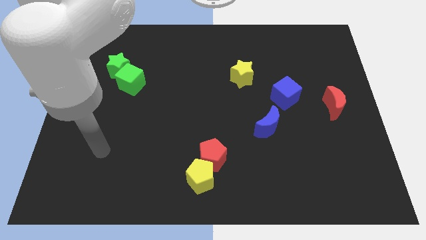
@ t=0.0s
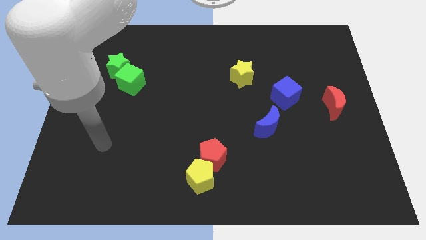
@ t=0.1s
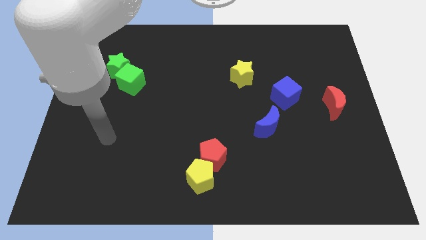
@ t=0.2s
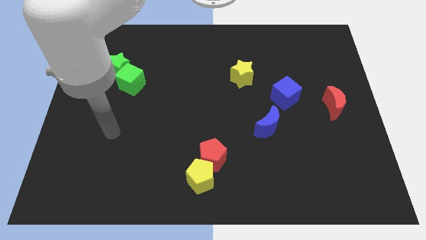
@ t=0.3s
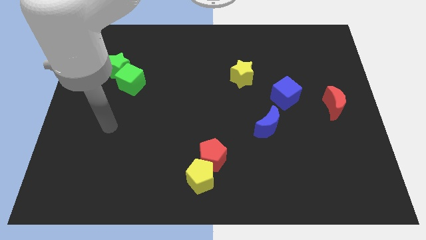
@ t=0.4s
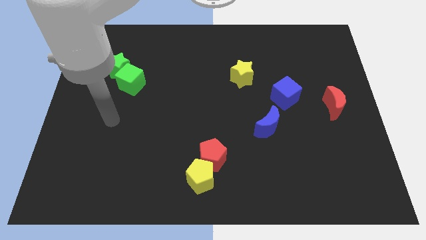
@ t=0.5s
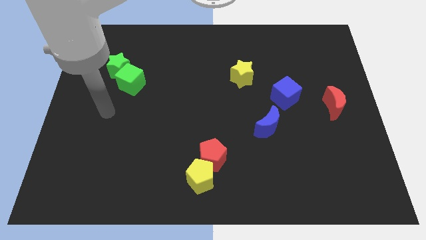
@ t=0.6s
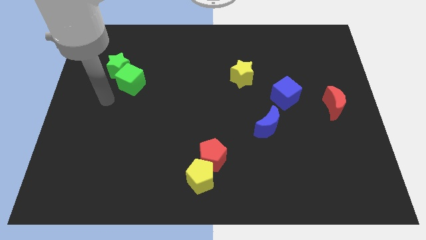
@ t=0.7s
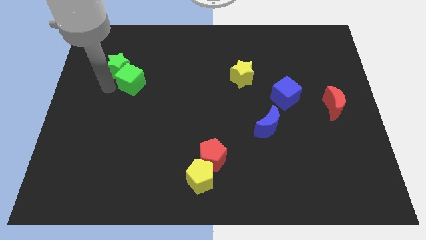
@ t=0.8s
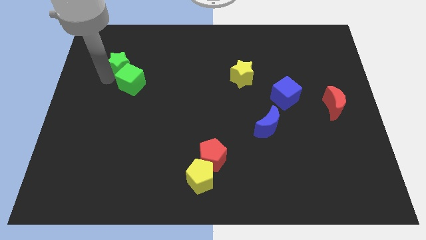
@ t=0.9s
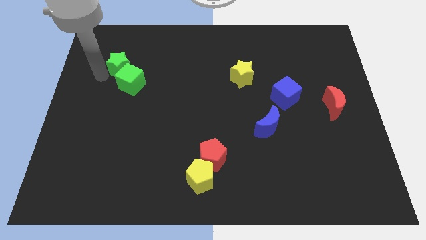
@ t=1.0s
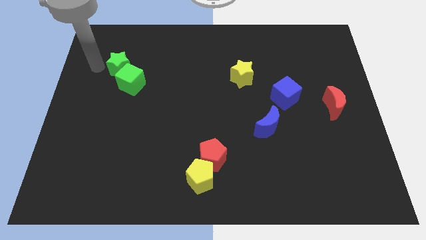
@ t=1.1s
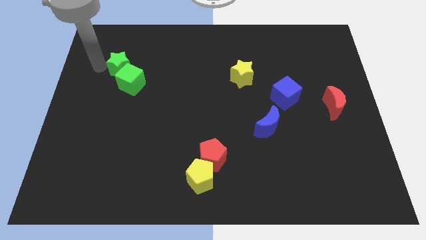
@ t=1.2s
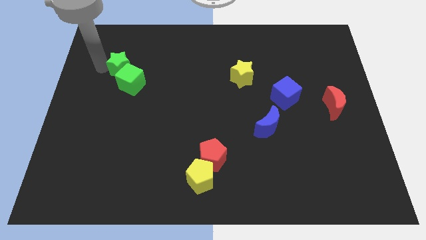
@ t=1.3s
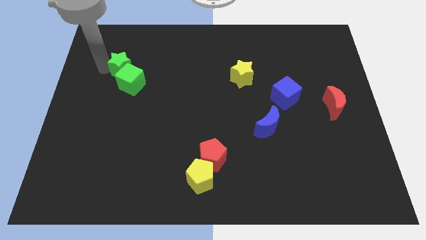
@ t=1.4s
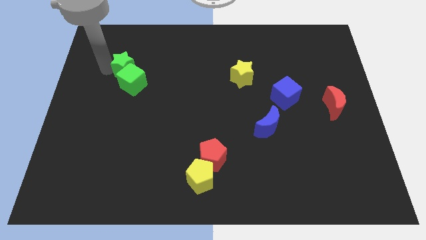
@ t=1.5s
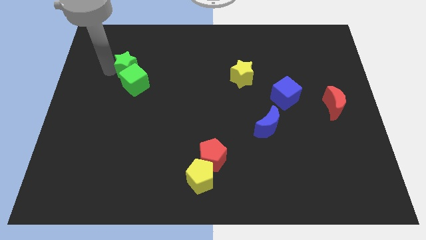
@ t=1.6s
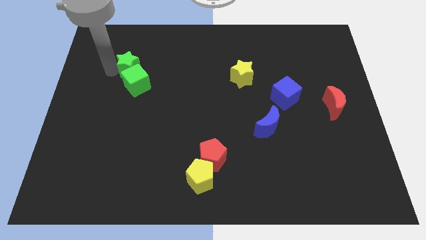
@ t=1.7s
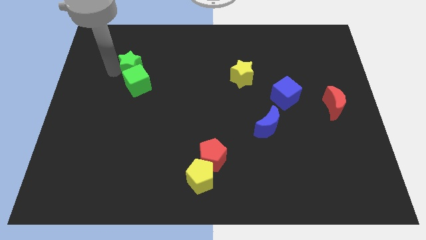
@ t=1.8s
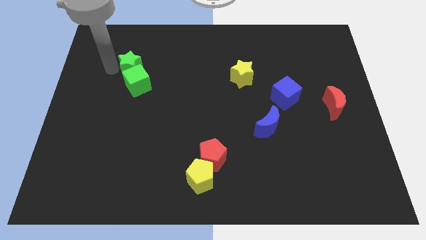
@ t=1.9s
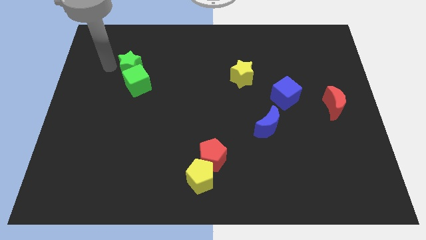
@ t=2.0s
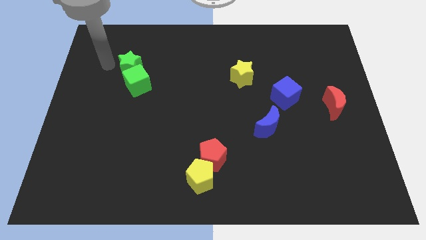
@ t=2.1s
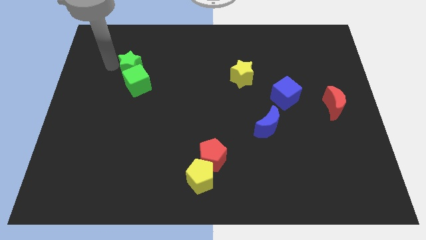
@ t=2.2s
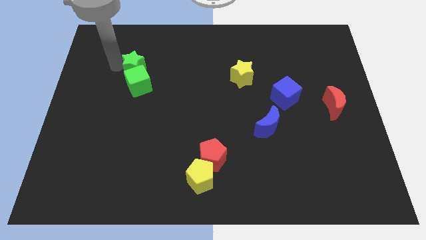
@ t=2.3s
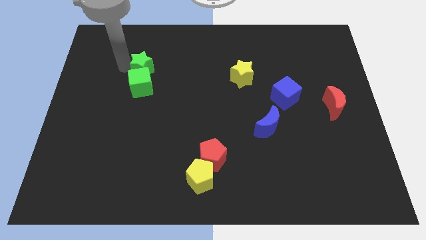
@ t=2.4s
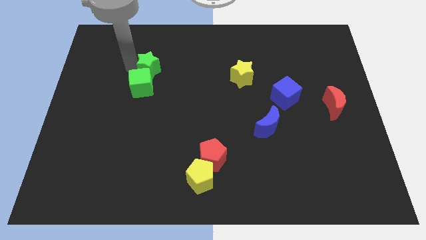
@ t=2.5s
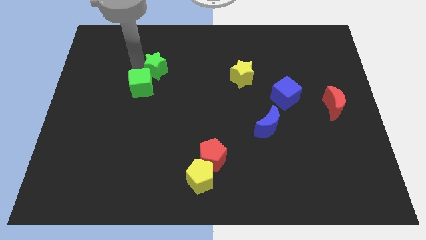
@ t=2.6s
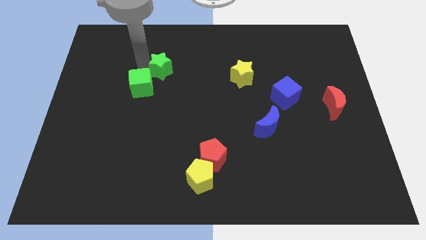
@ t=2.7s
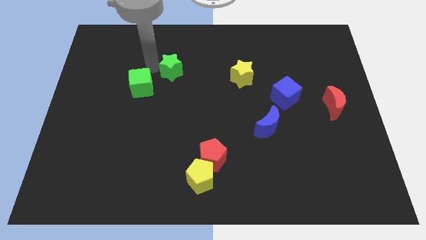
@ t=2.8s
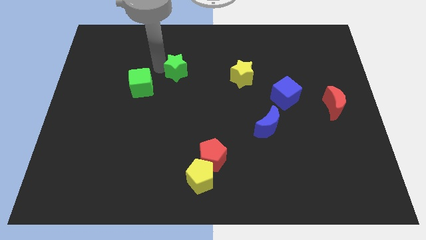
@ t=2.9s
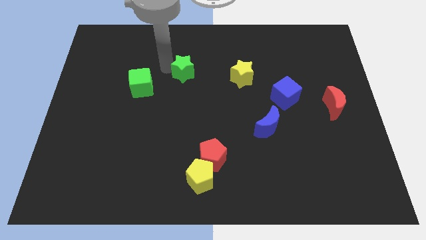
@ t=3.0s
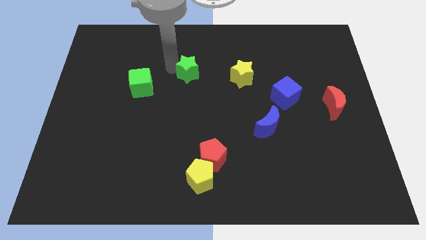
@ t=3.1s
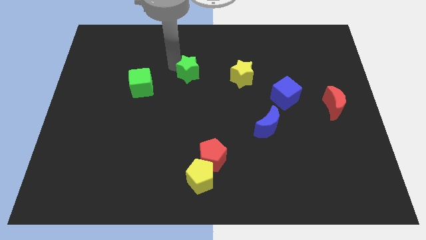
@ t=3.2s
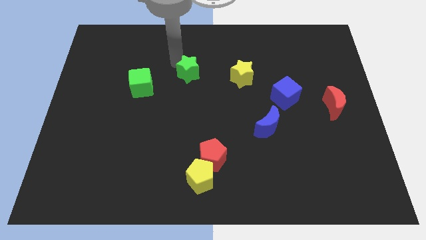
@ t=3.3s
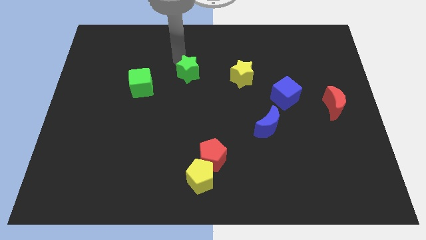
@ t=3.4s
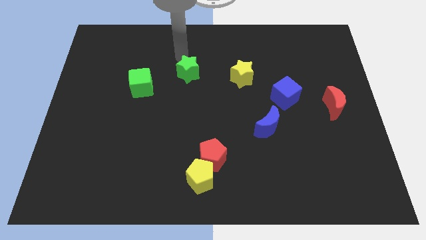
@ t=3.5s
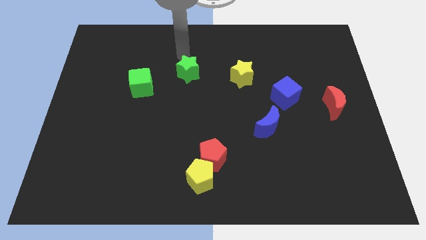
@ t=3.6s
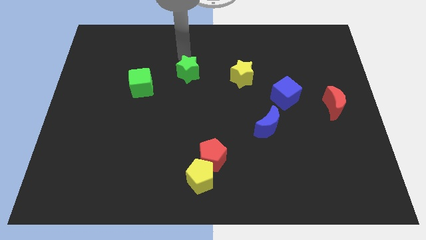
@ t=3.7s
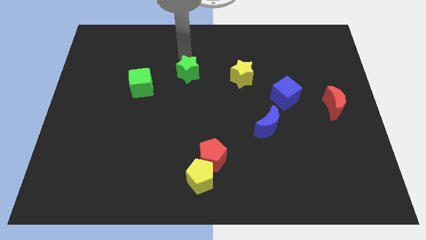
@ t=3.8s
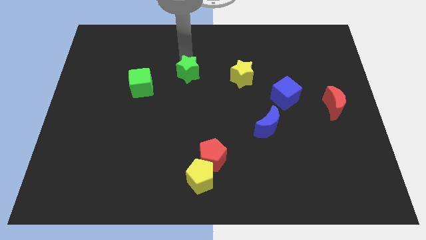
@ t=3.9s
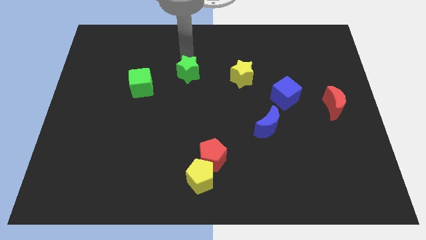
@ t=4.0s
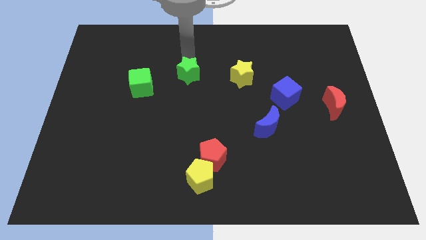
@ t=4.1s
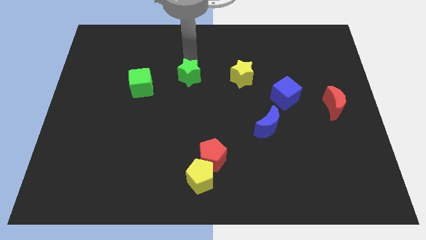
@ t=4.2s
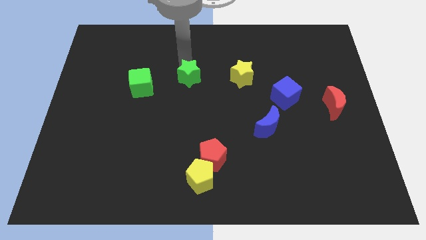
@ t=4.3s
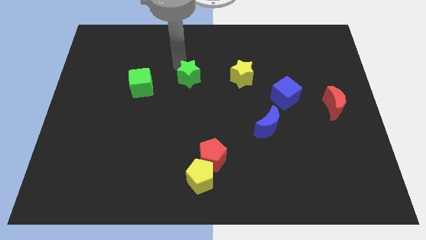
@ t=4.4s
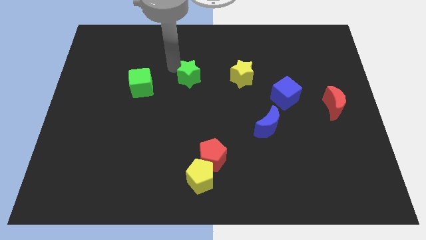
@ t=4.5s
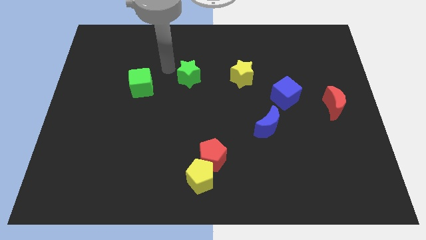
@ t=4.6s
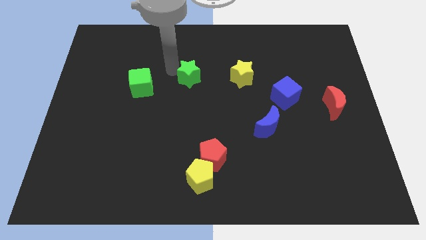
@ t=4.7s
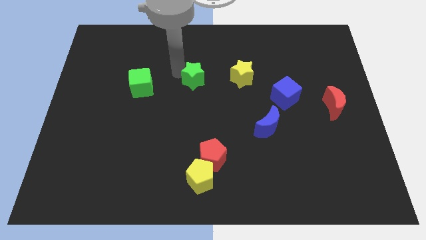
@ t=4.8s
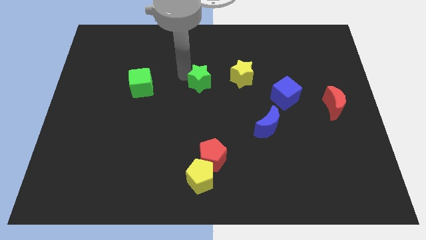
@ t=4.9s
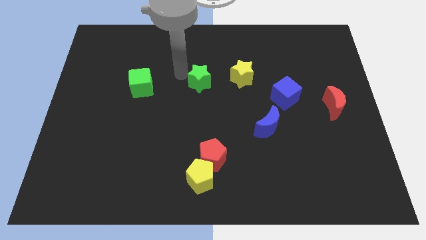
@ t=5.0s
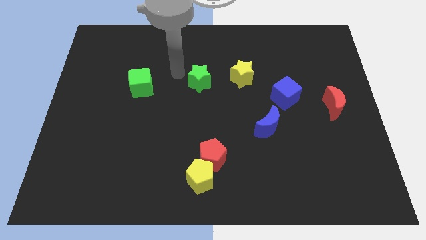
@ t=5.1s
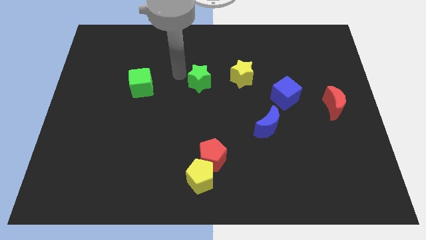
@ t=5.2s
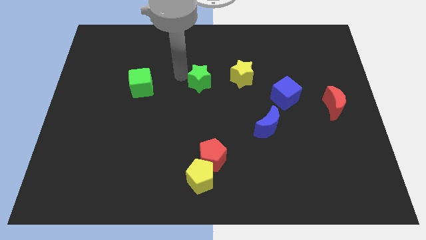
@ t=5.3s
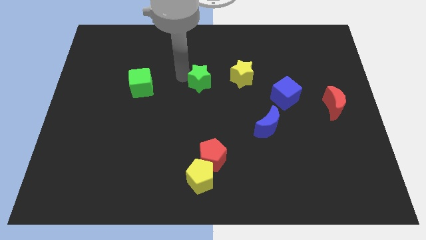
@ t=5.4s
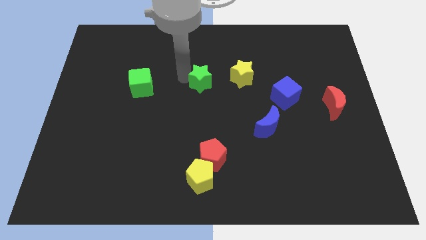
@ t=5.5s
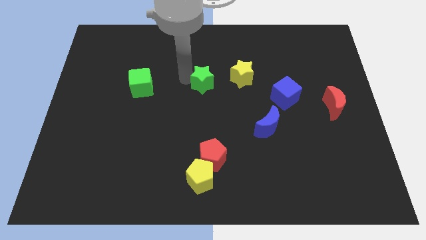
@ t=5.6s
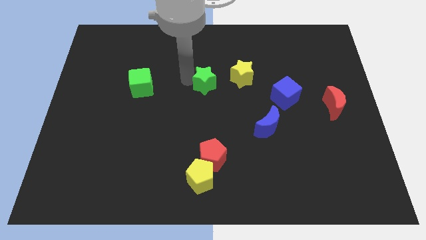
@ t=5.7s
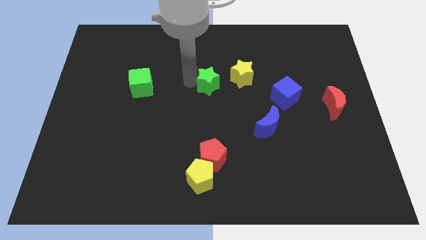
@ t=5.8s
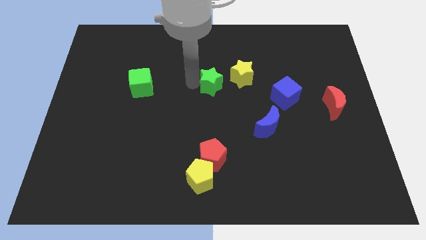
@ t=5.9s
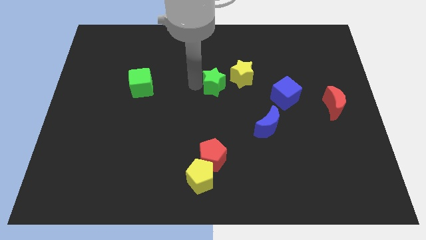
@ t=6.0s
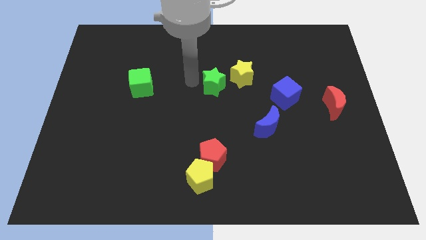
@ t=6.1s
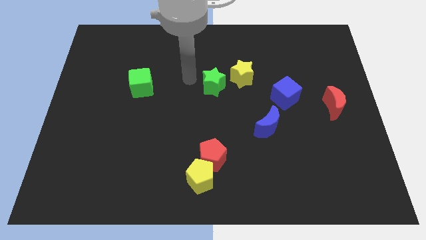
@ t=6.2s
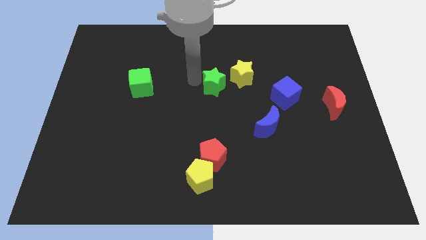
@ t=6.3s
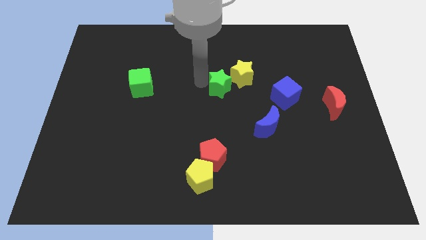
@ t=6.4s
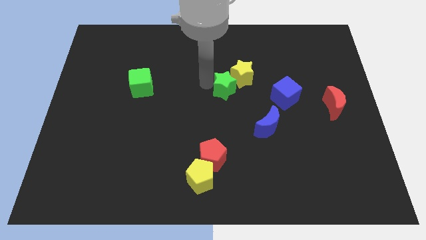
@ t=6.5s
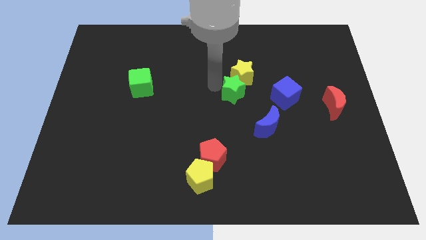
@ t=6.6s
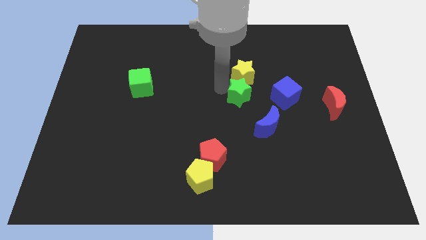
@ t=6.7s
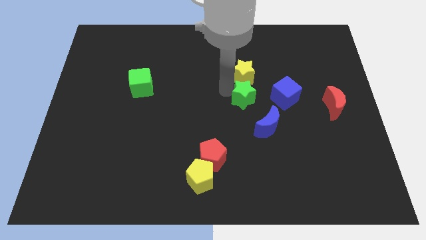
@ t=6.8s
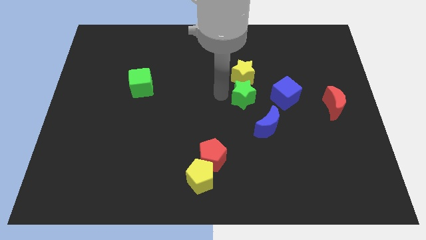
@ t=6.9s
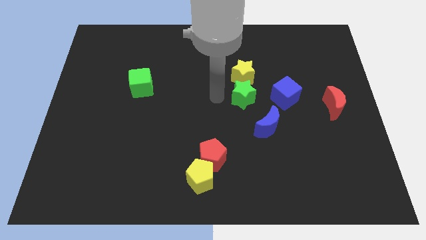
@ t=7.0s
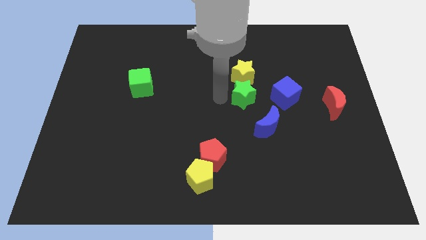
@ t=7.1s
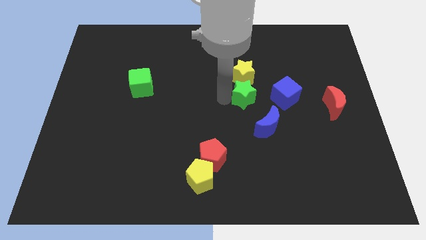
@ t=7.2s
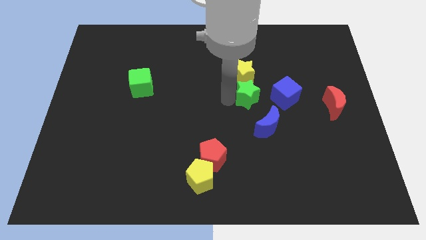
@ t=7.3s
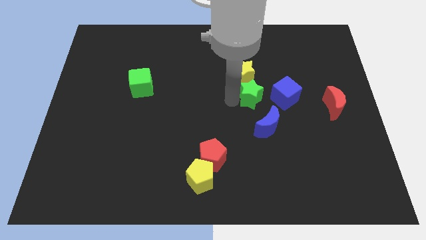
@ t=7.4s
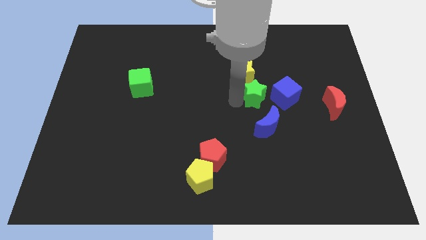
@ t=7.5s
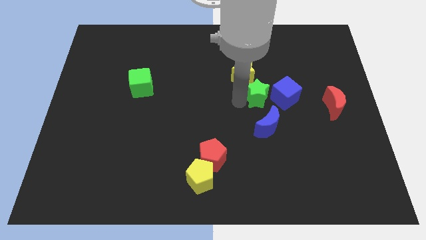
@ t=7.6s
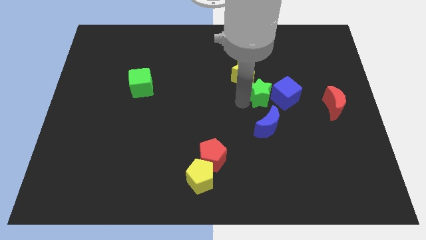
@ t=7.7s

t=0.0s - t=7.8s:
push the green star towards the blue cube
